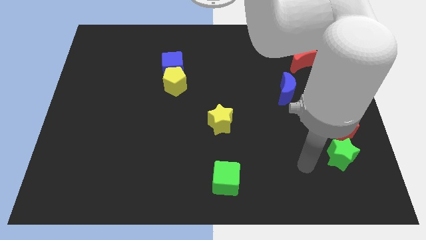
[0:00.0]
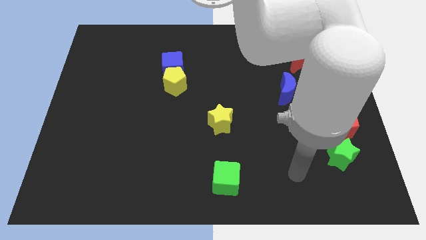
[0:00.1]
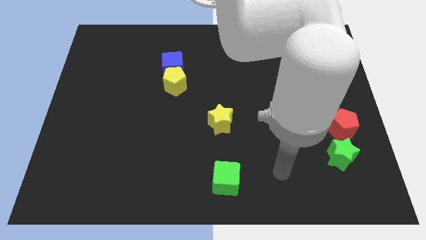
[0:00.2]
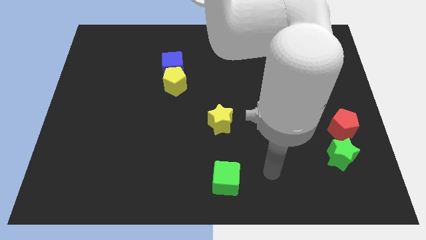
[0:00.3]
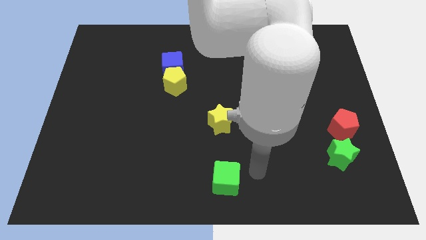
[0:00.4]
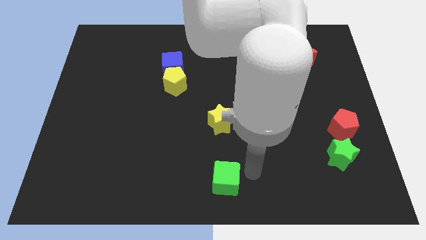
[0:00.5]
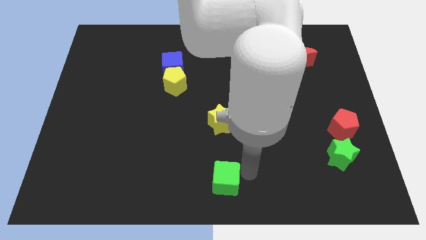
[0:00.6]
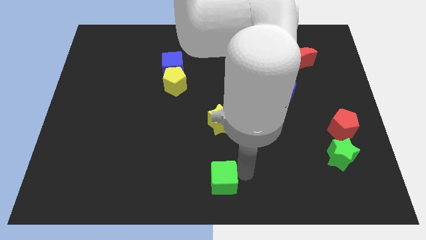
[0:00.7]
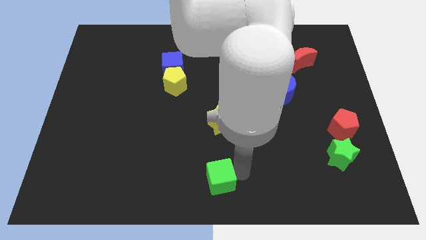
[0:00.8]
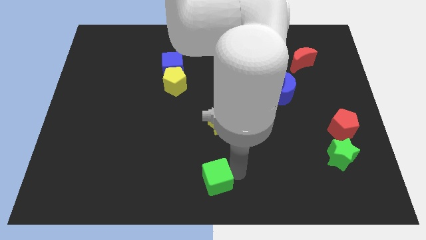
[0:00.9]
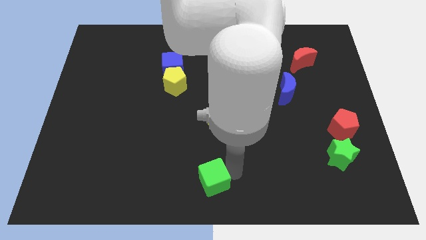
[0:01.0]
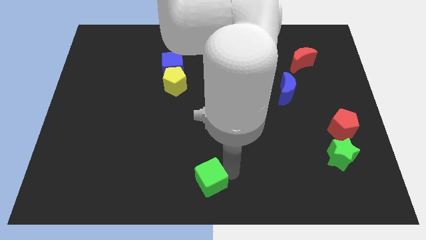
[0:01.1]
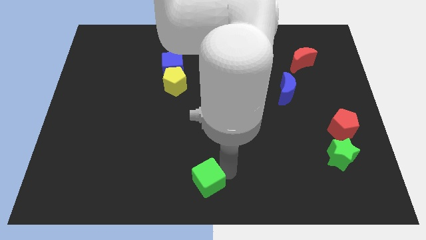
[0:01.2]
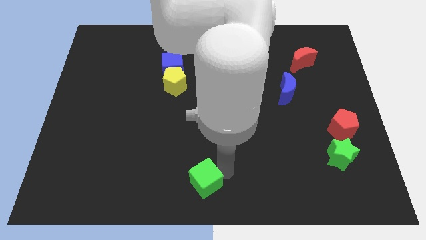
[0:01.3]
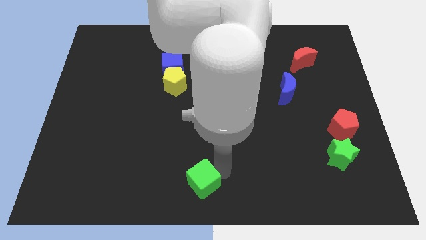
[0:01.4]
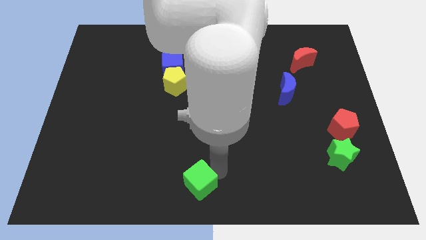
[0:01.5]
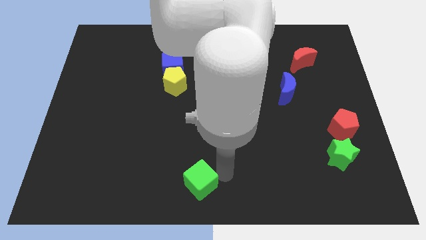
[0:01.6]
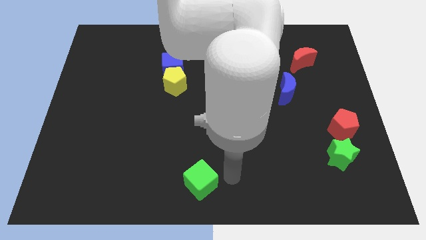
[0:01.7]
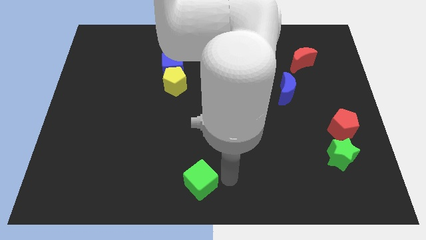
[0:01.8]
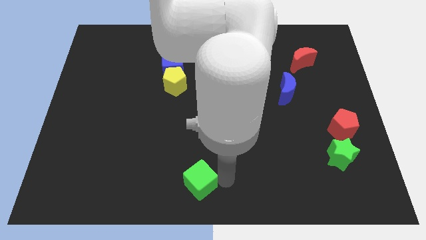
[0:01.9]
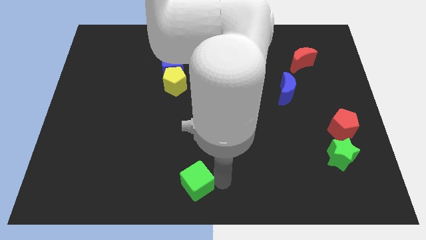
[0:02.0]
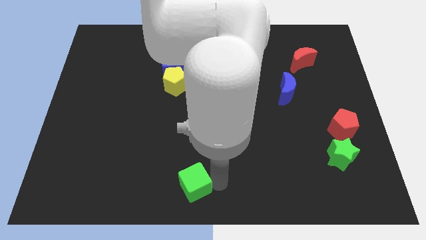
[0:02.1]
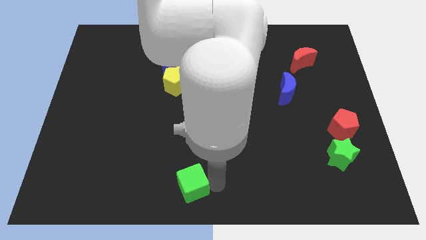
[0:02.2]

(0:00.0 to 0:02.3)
push the green cube somewhat to the left

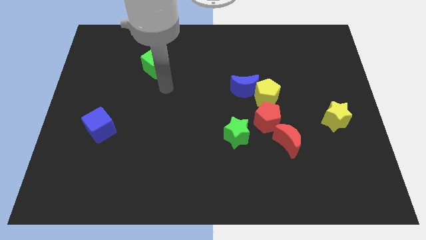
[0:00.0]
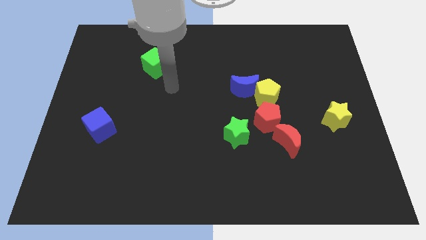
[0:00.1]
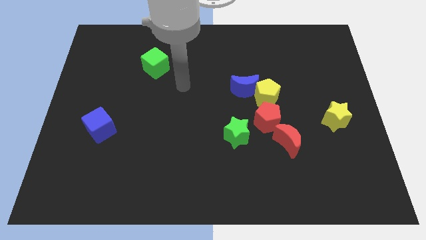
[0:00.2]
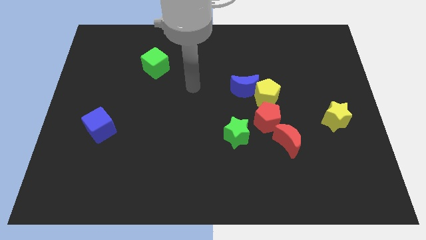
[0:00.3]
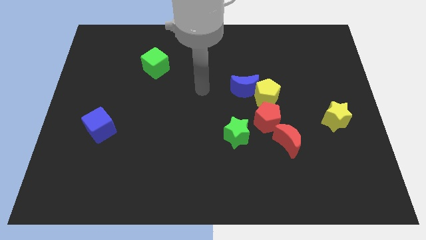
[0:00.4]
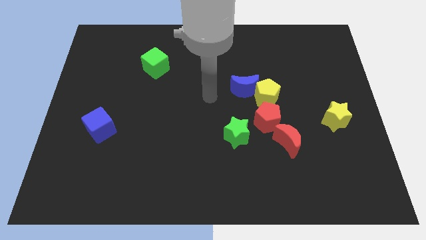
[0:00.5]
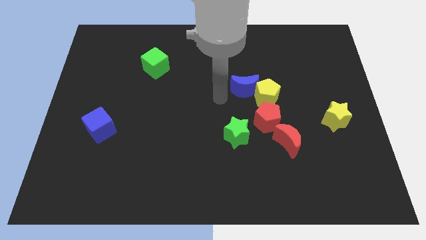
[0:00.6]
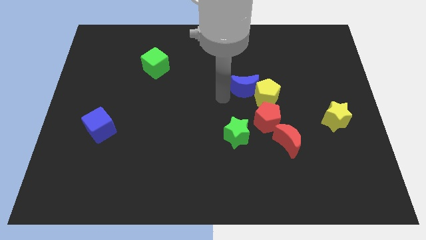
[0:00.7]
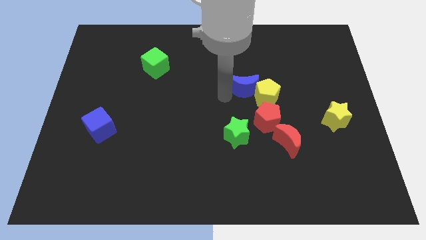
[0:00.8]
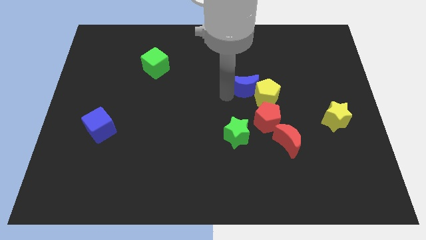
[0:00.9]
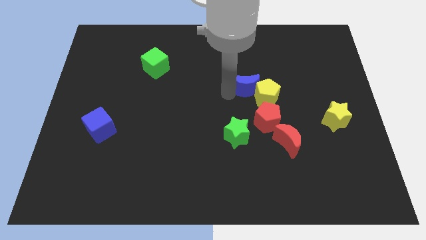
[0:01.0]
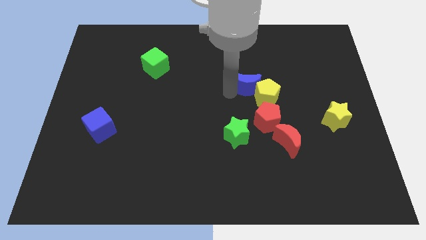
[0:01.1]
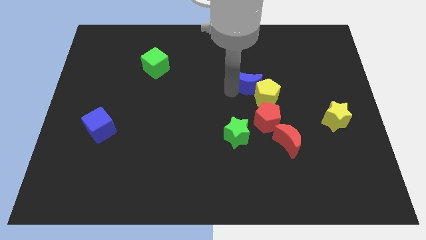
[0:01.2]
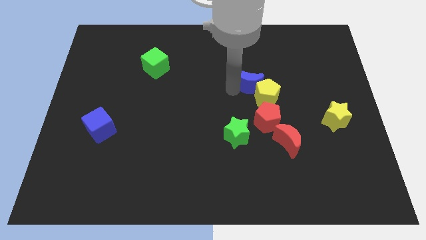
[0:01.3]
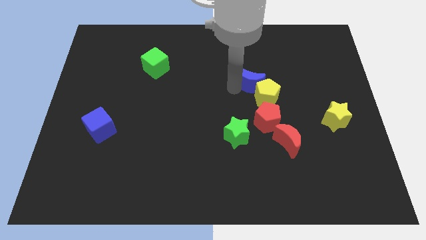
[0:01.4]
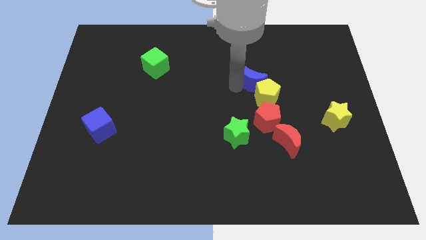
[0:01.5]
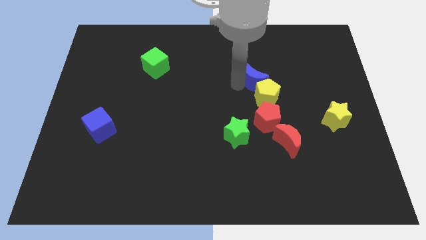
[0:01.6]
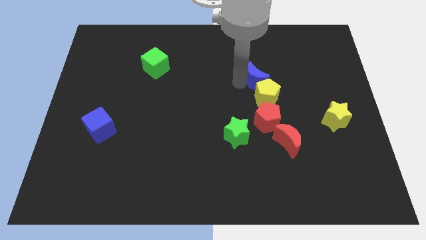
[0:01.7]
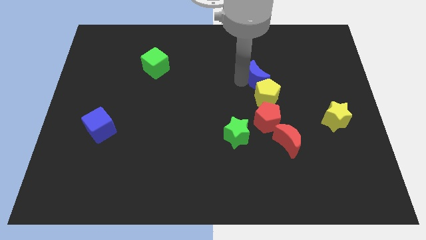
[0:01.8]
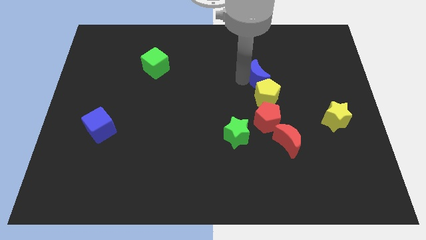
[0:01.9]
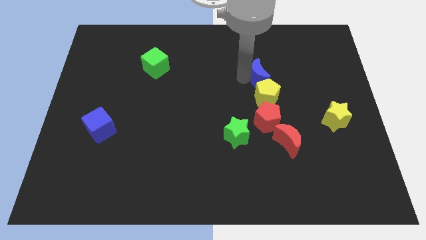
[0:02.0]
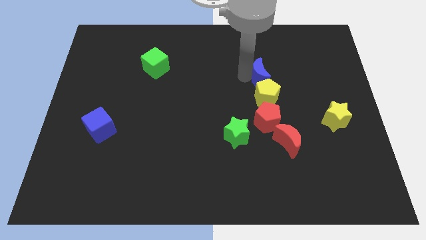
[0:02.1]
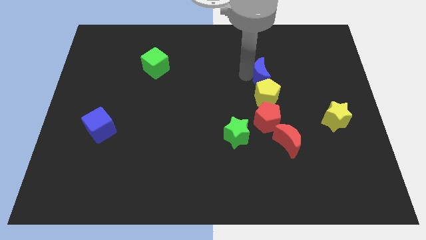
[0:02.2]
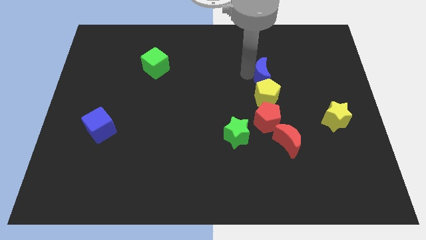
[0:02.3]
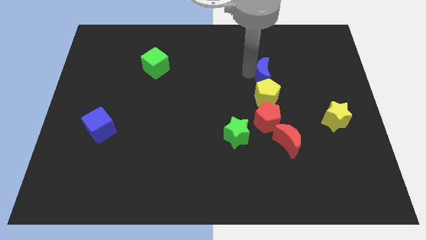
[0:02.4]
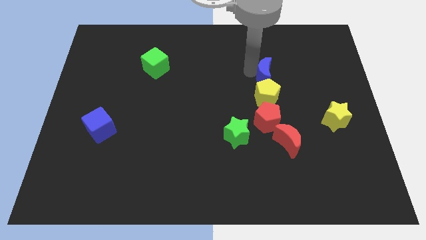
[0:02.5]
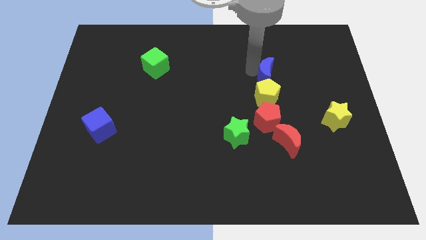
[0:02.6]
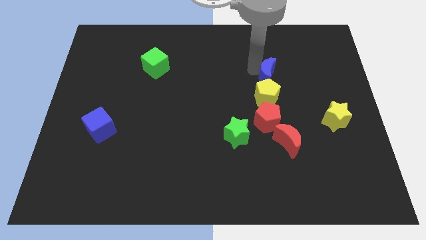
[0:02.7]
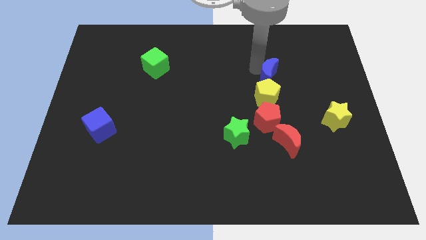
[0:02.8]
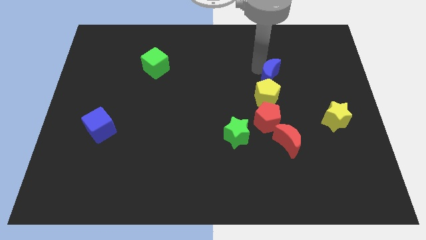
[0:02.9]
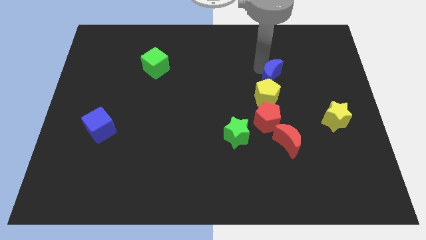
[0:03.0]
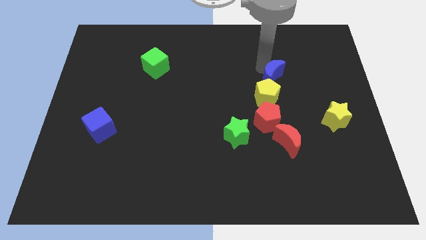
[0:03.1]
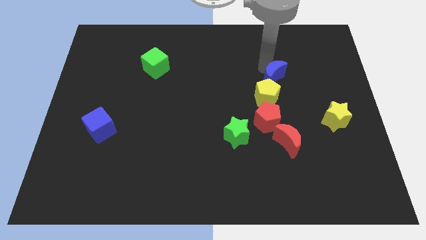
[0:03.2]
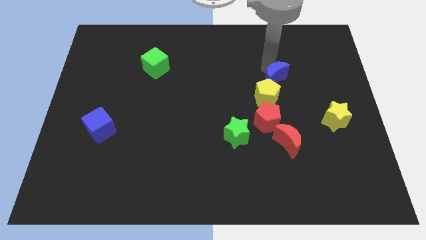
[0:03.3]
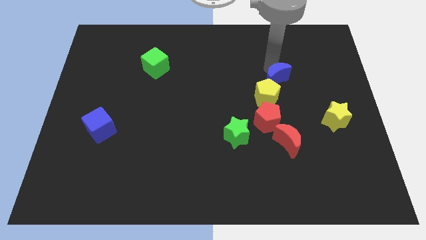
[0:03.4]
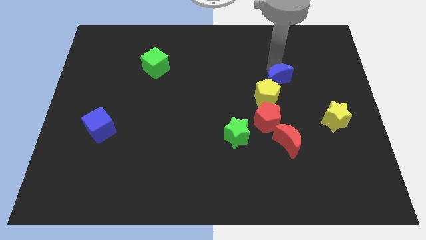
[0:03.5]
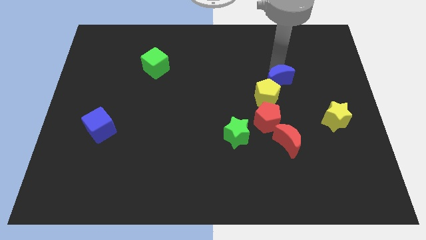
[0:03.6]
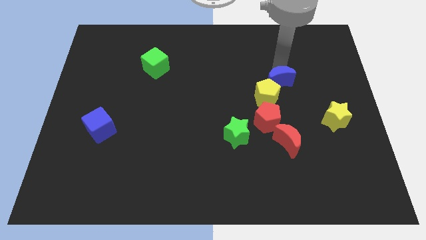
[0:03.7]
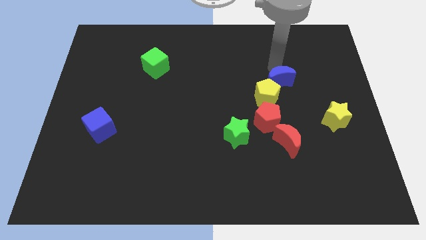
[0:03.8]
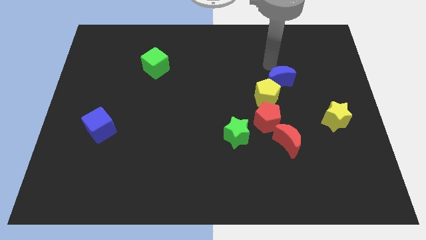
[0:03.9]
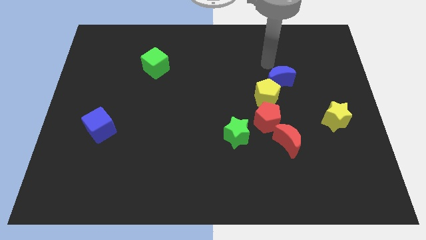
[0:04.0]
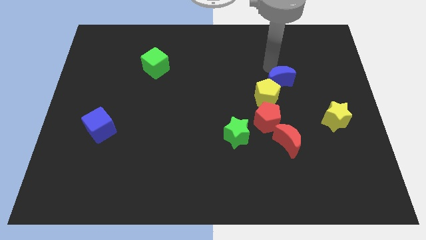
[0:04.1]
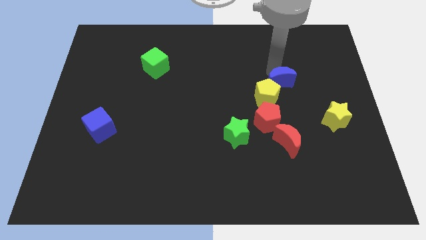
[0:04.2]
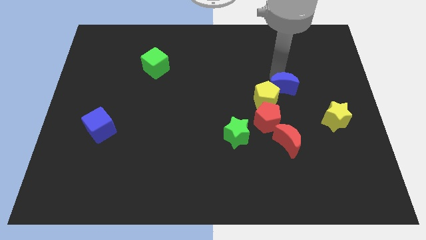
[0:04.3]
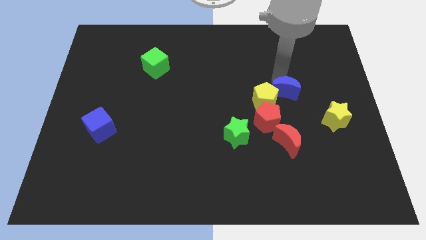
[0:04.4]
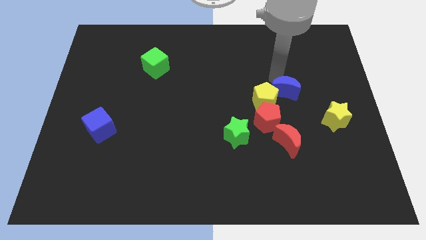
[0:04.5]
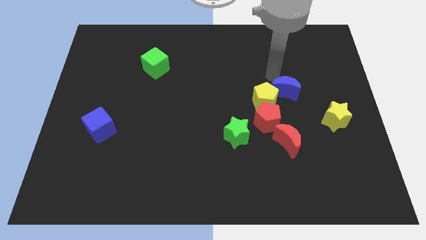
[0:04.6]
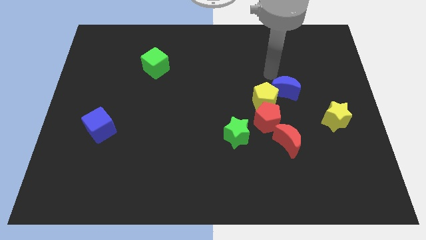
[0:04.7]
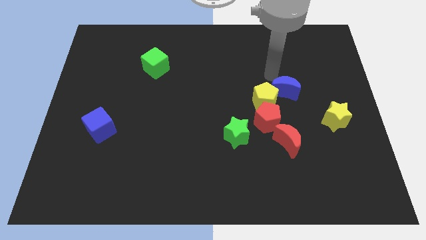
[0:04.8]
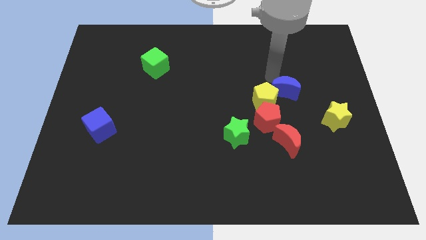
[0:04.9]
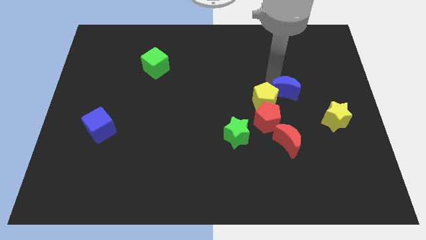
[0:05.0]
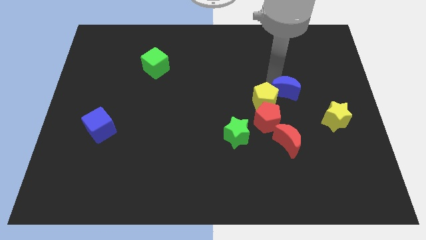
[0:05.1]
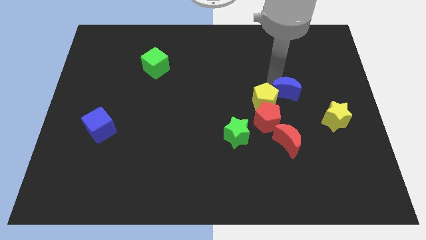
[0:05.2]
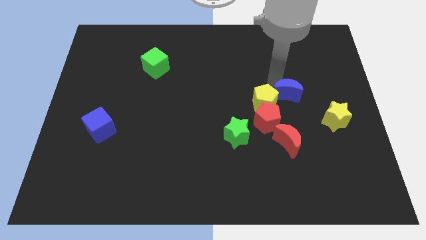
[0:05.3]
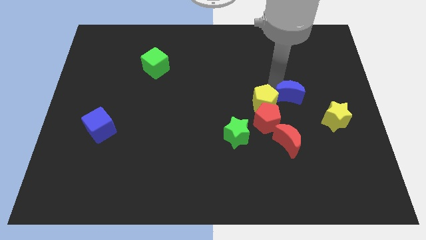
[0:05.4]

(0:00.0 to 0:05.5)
slightly move the blue moon downwards and right

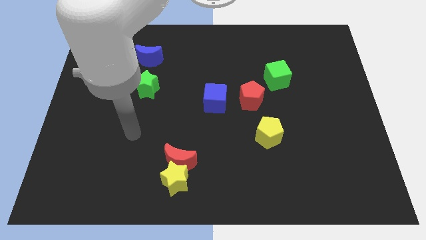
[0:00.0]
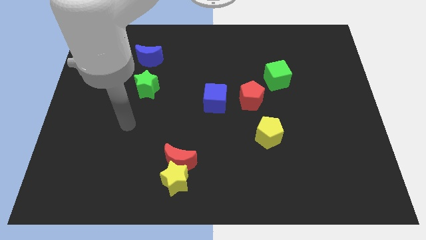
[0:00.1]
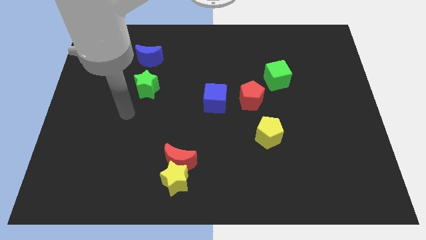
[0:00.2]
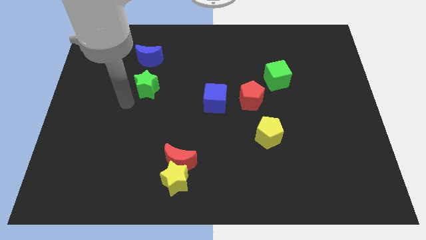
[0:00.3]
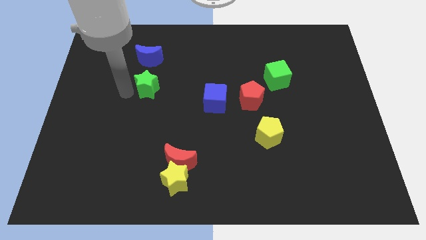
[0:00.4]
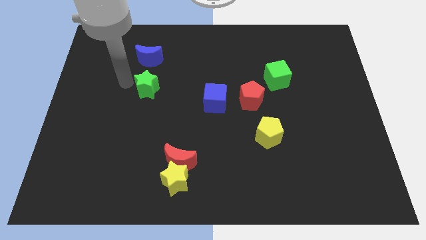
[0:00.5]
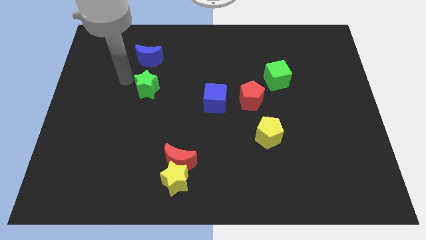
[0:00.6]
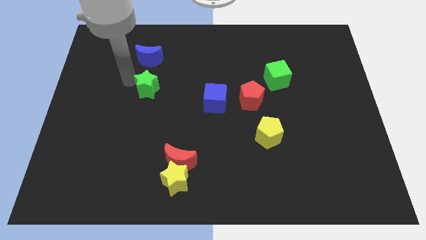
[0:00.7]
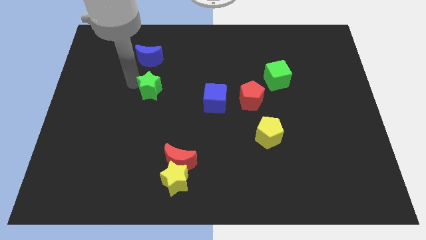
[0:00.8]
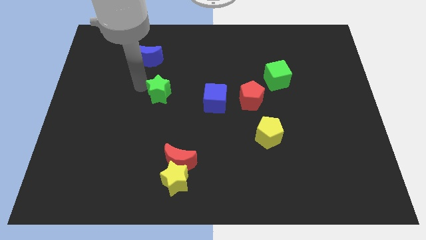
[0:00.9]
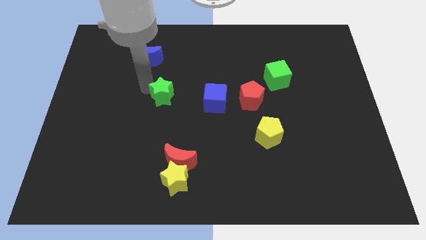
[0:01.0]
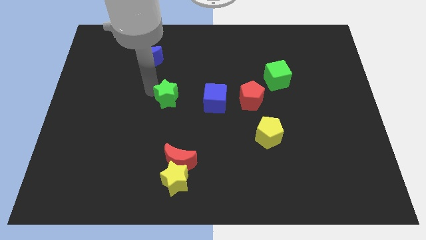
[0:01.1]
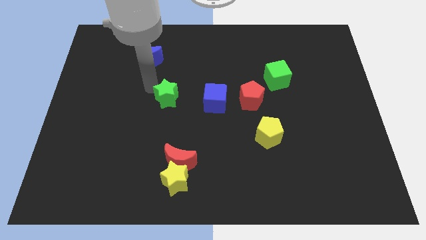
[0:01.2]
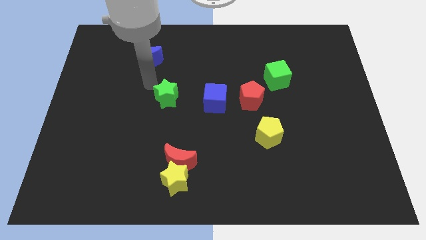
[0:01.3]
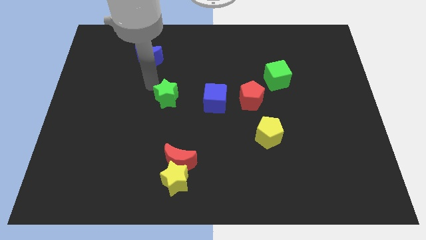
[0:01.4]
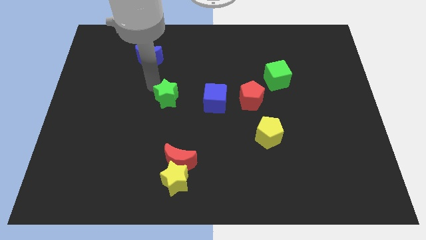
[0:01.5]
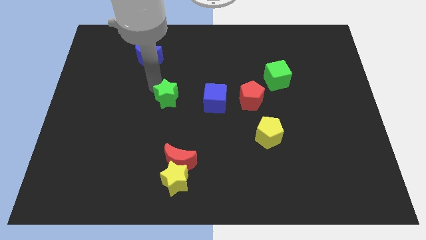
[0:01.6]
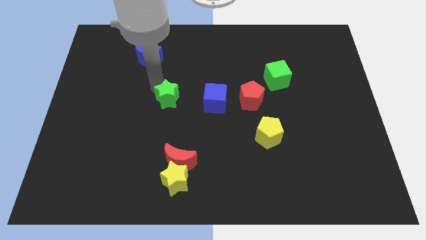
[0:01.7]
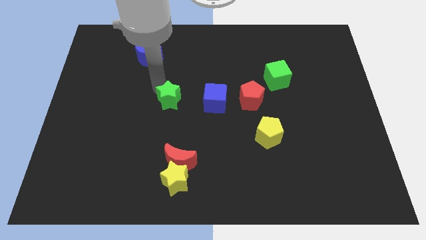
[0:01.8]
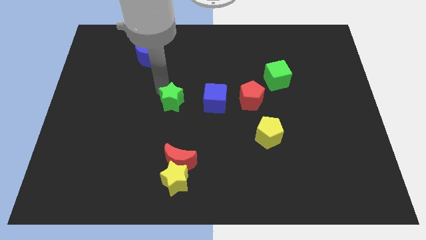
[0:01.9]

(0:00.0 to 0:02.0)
push the green star diagonally down and to the right a little bit
